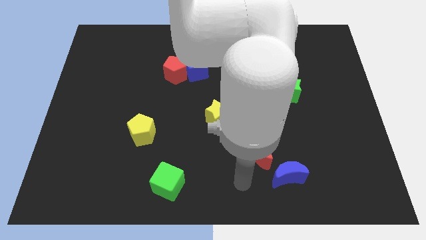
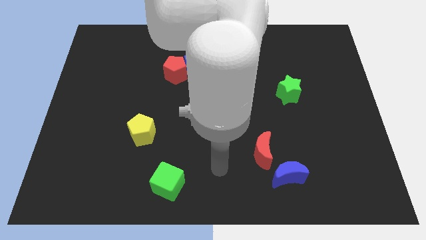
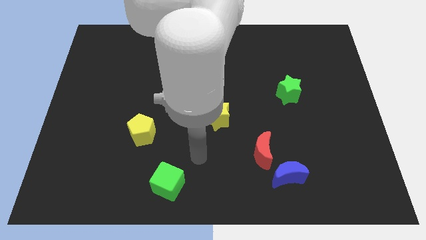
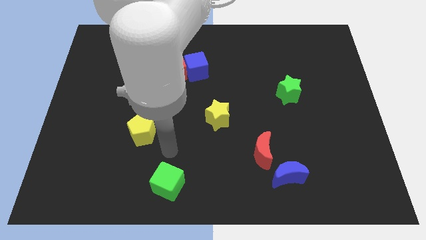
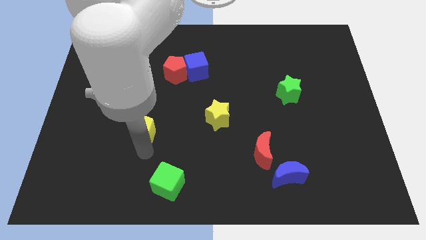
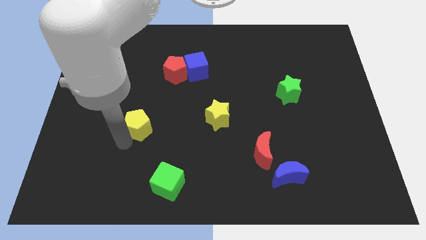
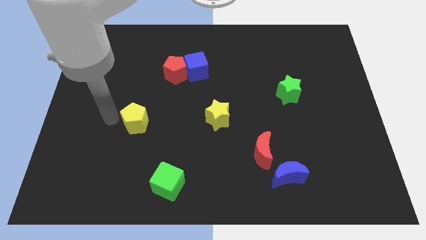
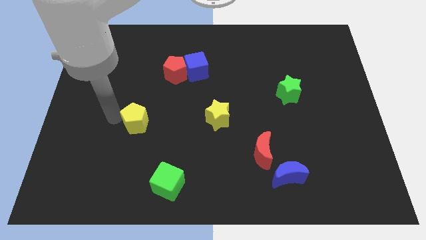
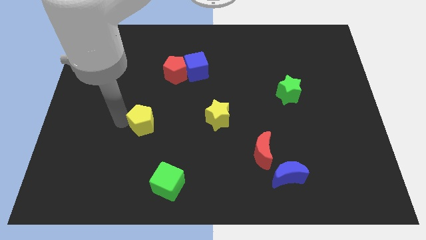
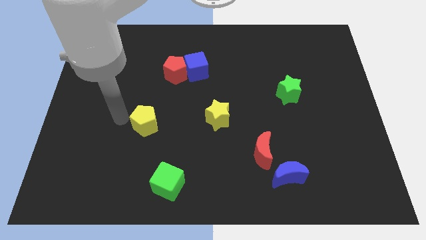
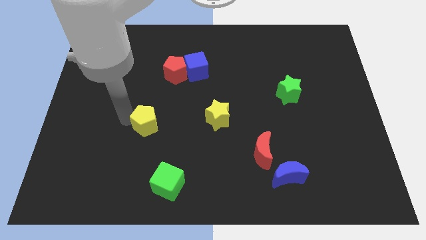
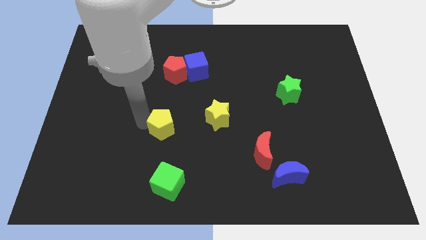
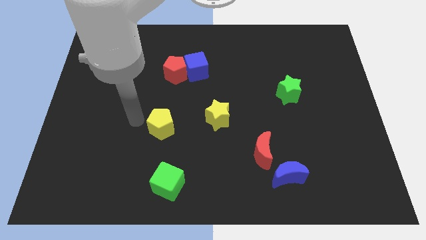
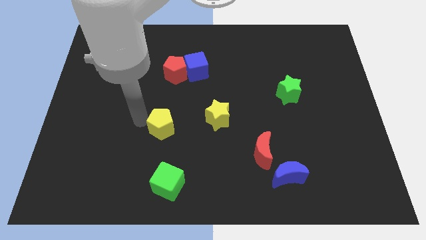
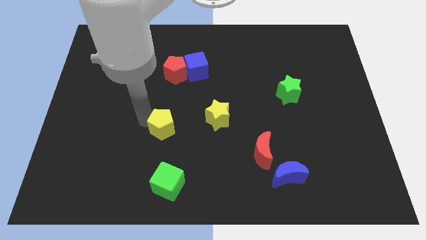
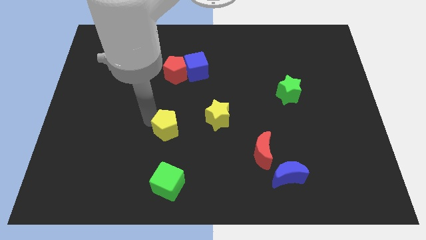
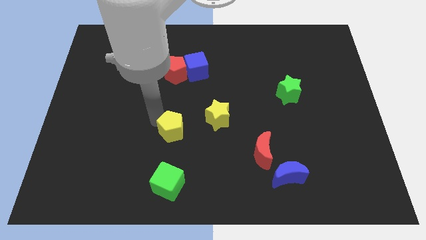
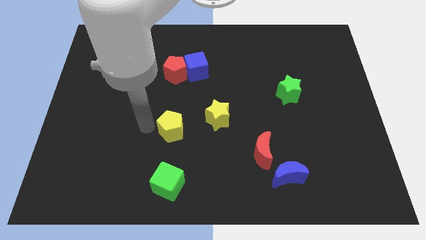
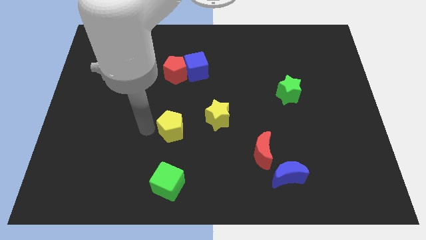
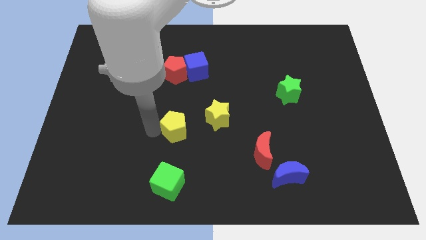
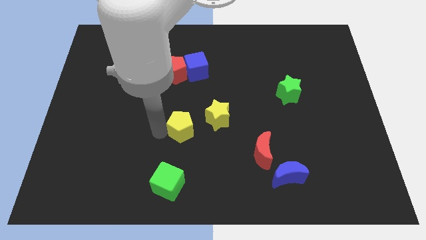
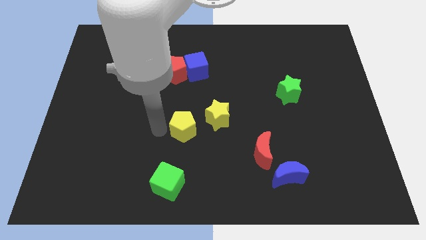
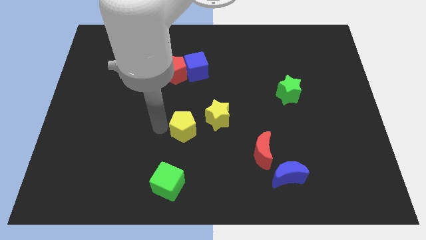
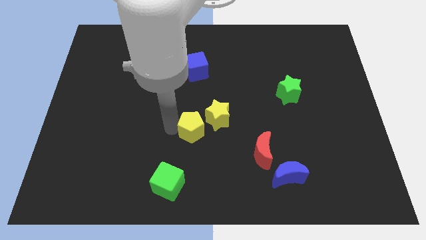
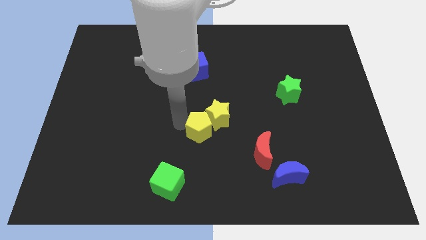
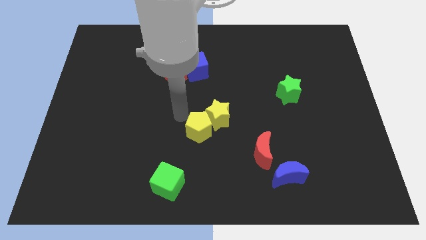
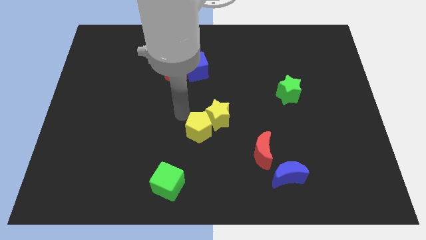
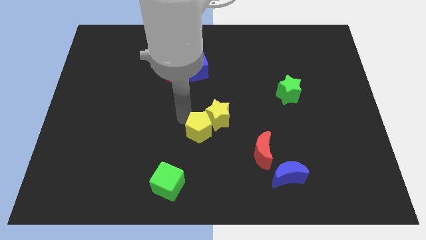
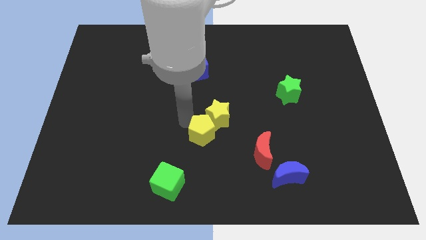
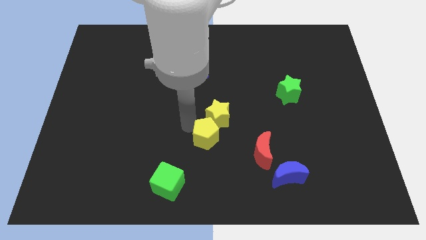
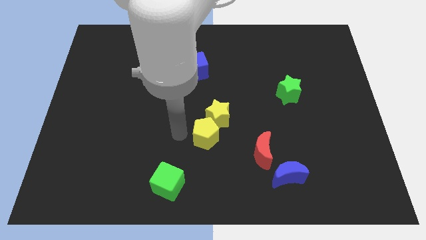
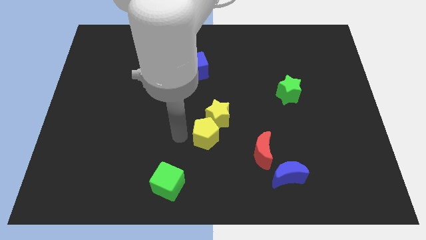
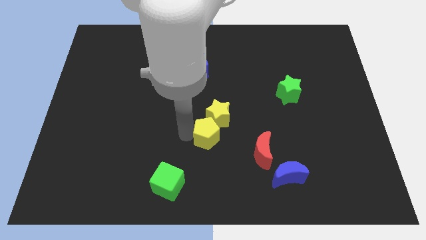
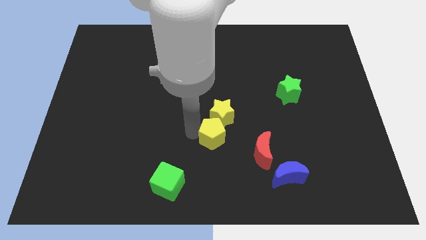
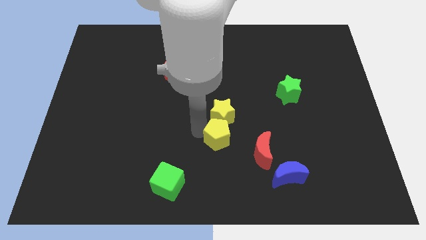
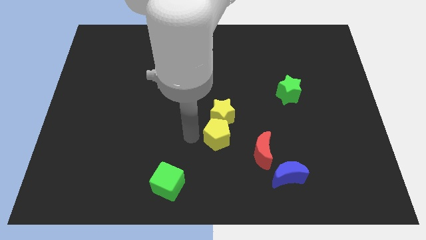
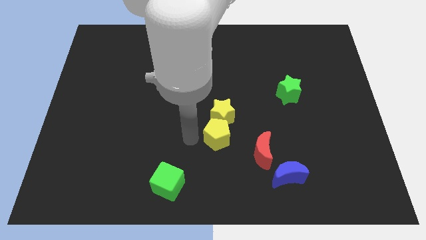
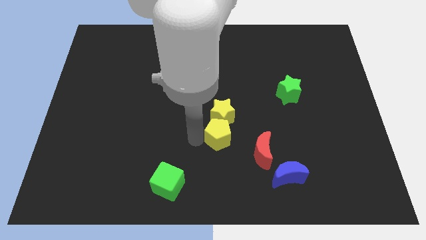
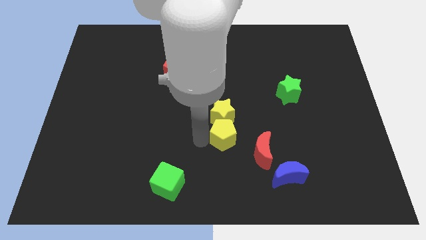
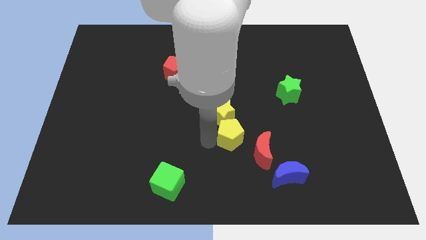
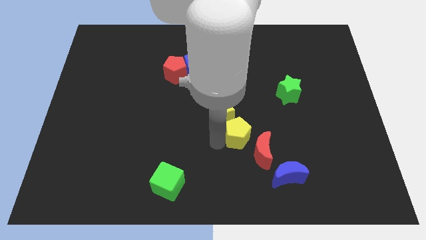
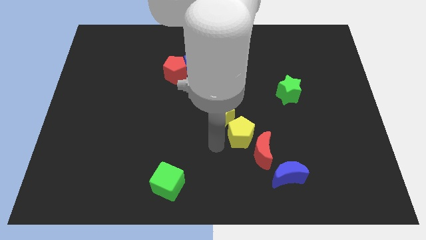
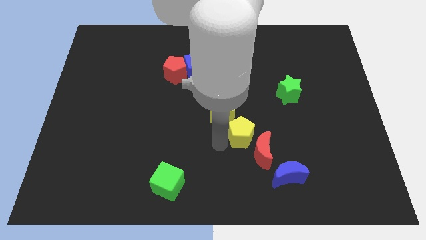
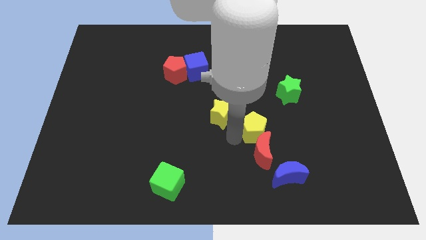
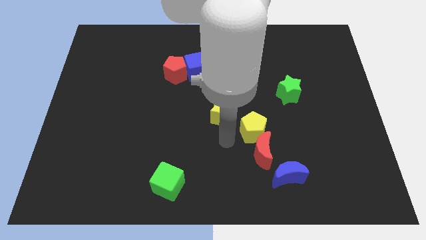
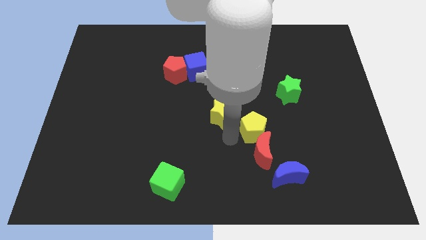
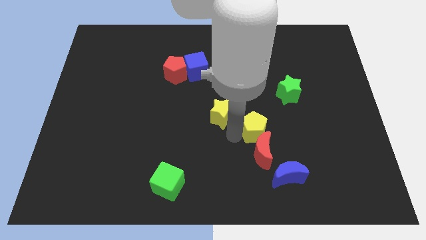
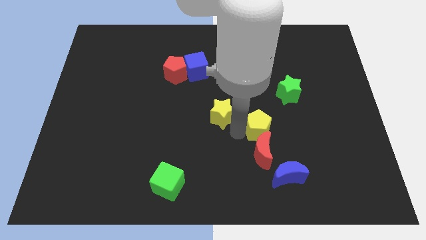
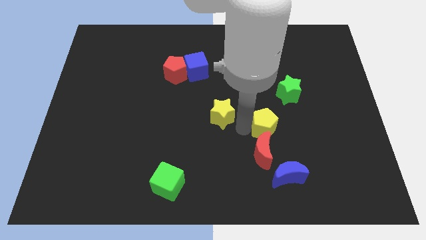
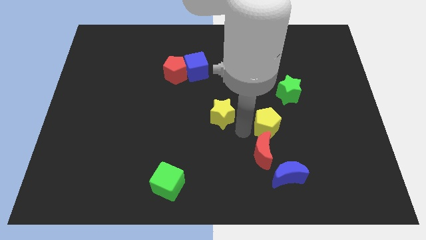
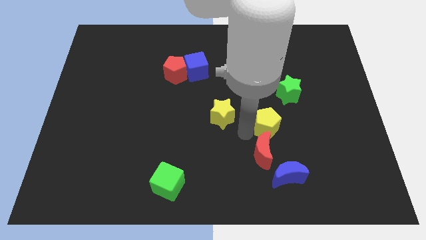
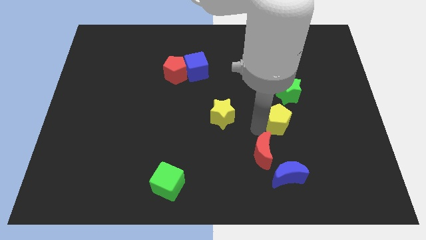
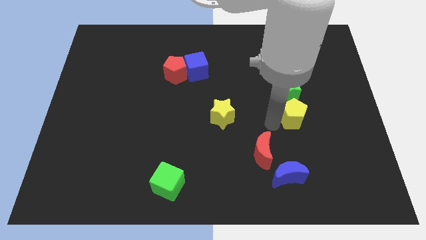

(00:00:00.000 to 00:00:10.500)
slide the yellow pentagon to the bottom right side of the green star

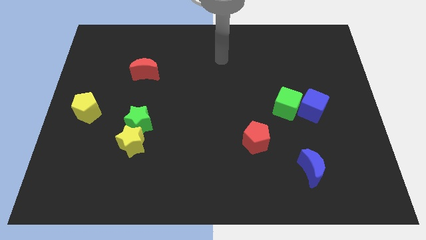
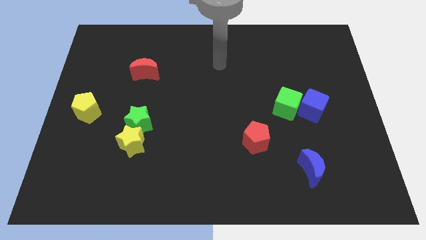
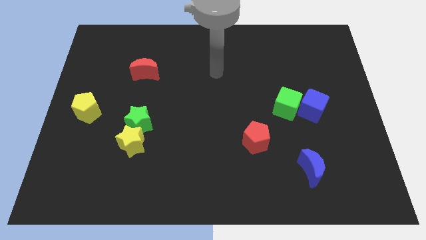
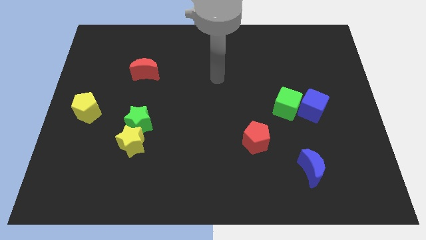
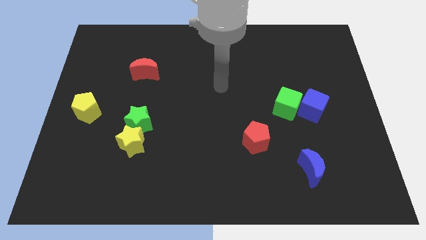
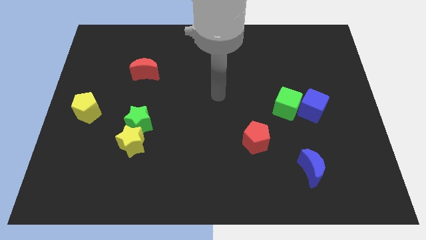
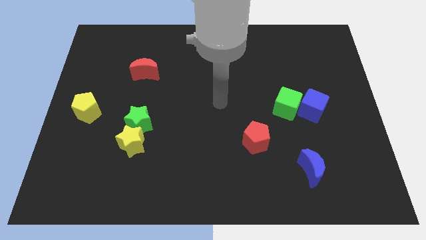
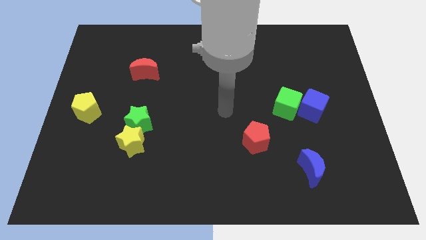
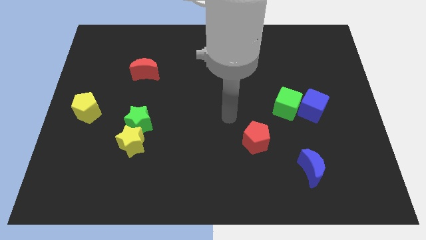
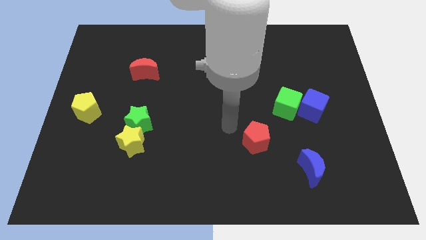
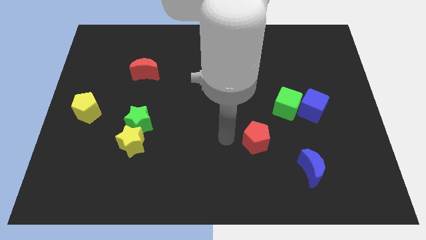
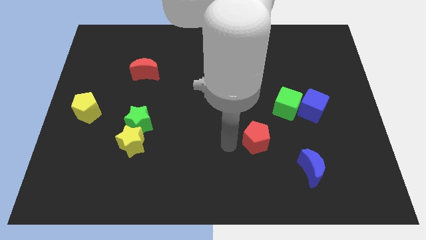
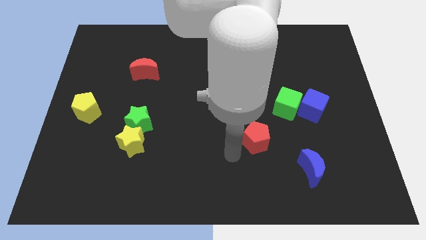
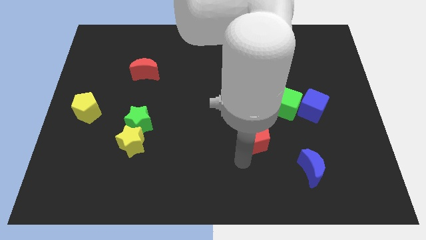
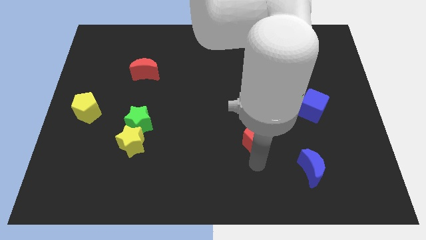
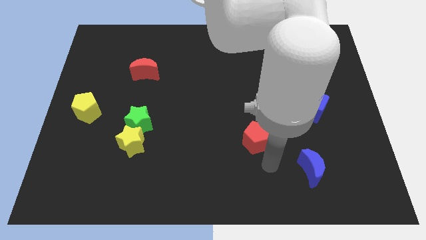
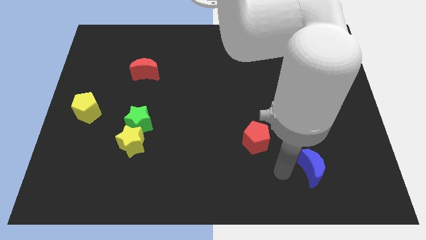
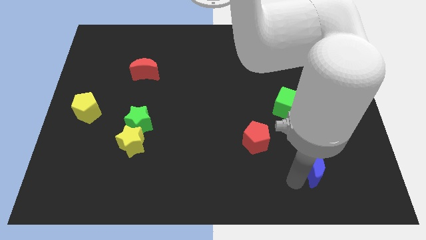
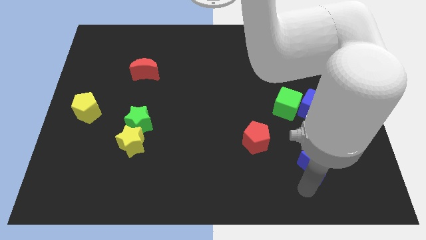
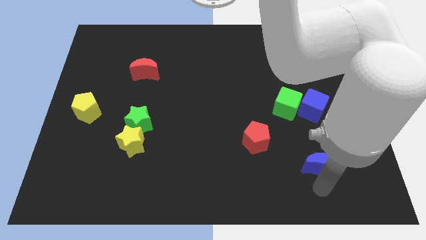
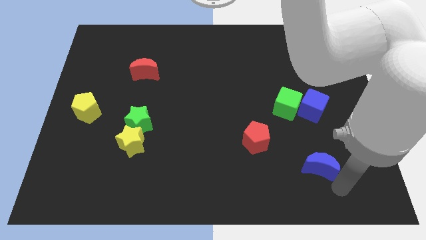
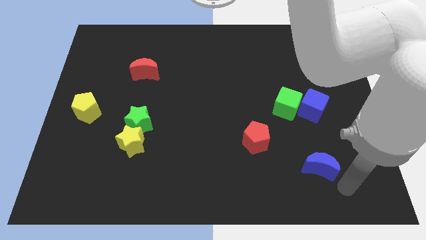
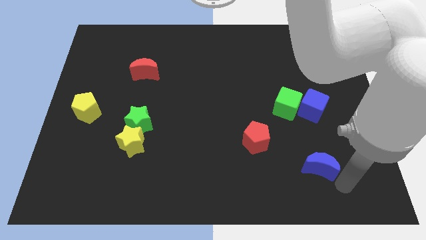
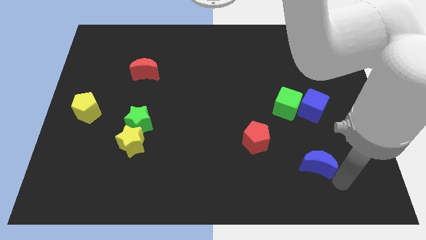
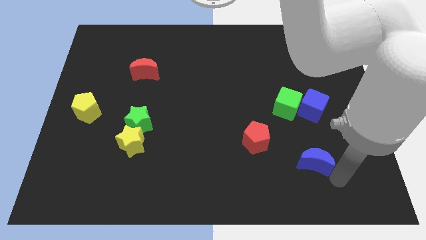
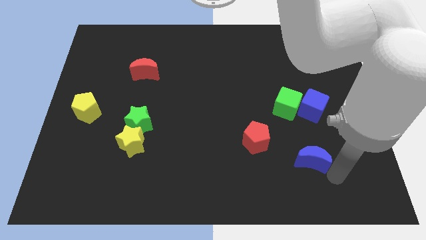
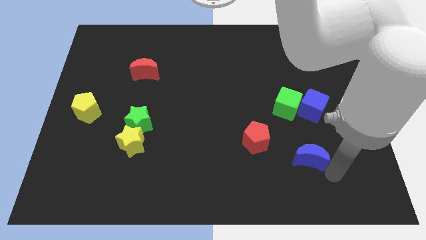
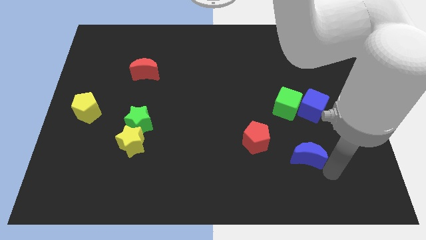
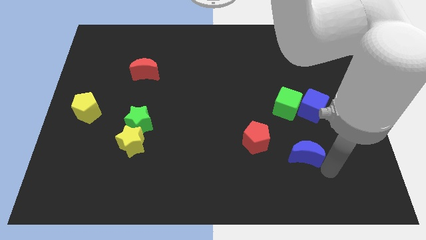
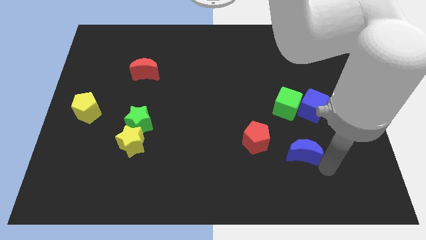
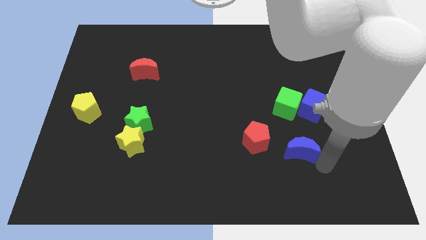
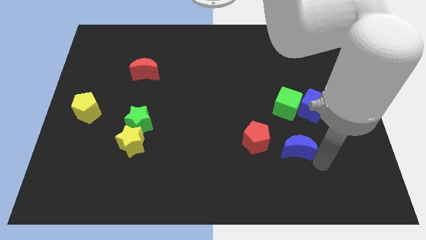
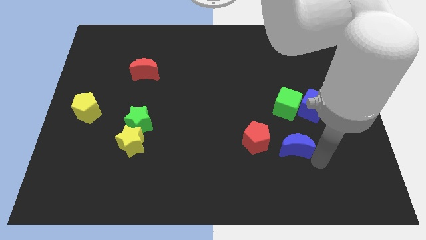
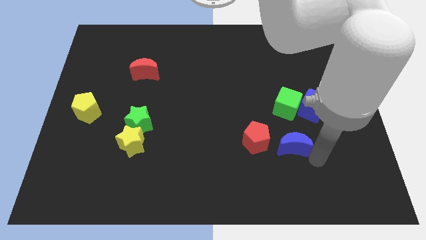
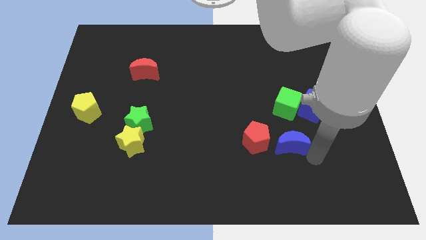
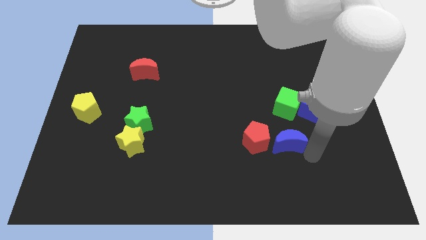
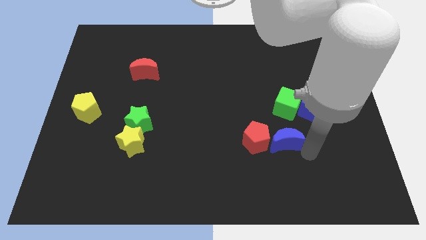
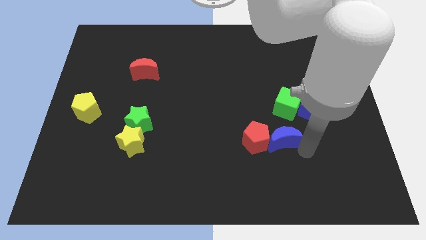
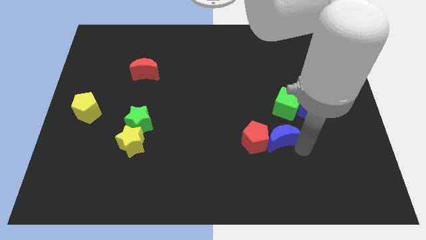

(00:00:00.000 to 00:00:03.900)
slide the blue moon to the bottom left side of the green cube
